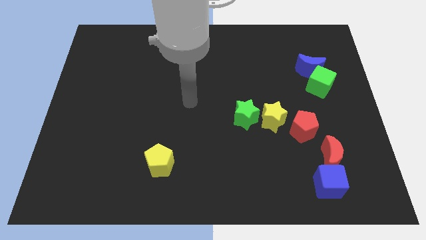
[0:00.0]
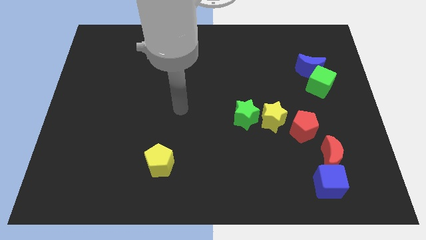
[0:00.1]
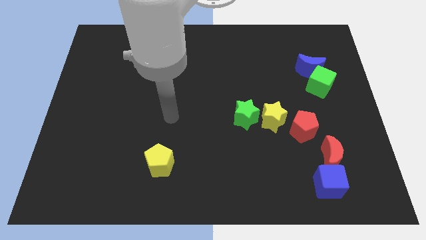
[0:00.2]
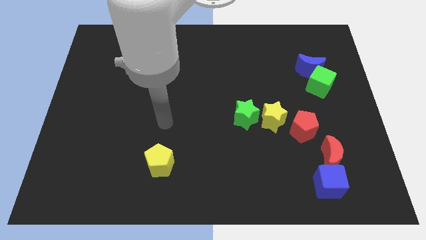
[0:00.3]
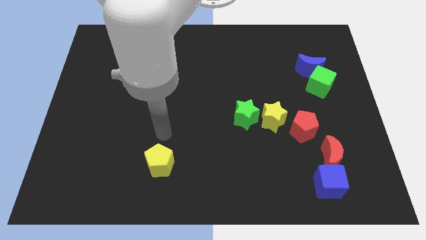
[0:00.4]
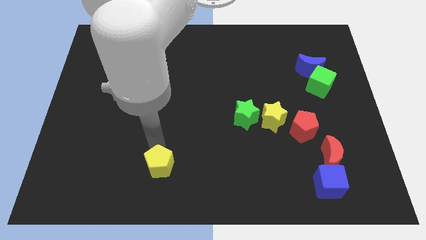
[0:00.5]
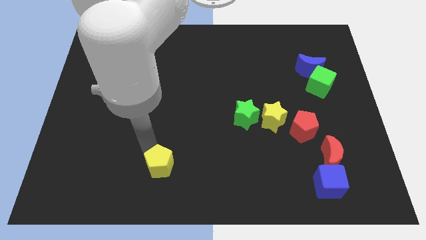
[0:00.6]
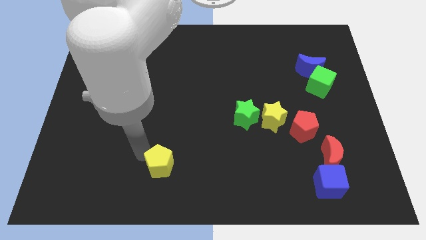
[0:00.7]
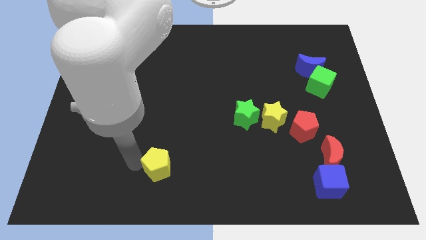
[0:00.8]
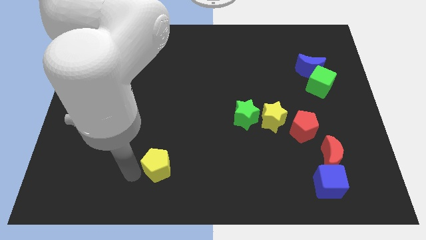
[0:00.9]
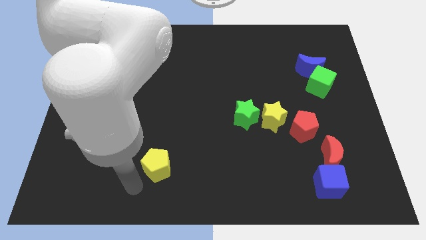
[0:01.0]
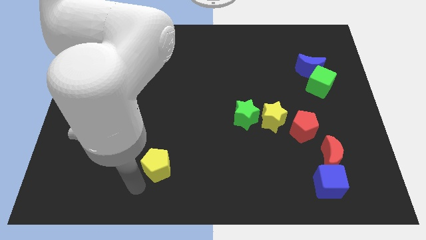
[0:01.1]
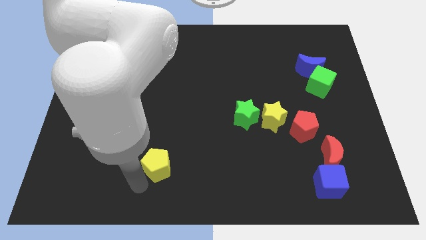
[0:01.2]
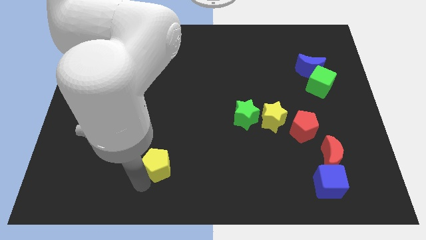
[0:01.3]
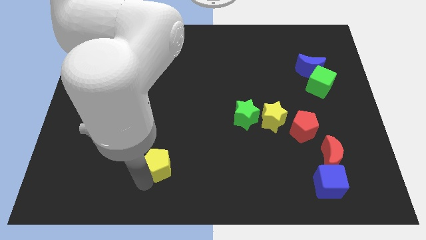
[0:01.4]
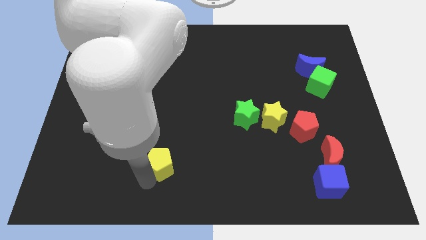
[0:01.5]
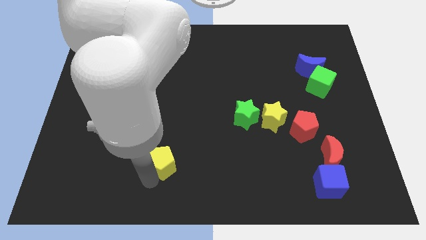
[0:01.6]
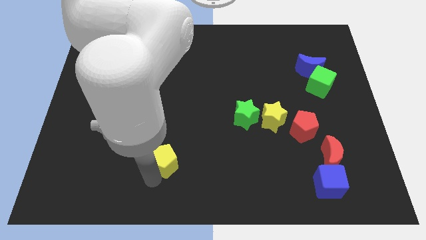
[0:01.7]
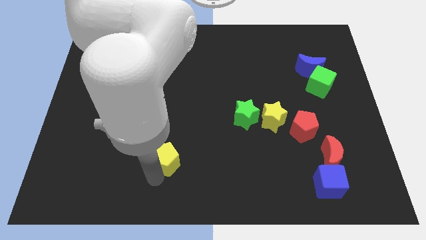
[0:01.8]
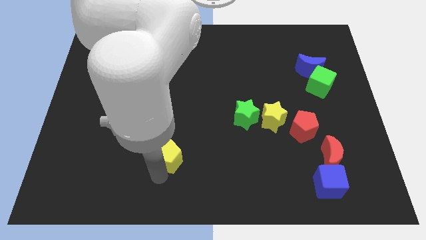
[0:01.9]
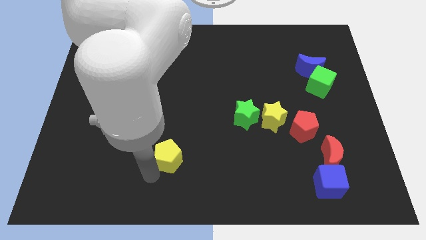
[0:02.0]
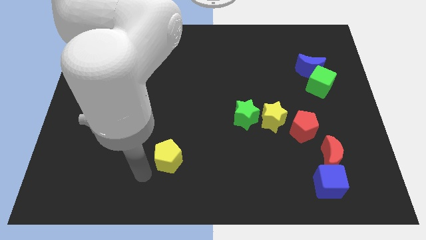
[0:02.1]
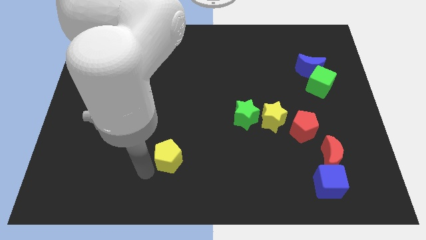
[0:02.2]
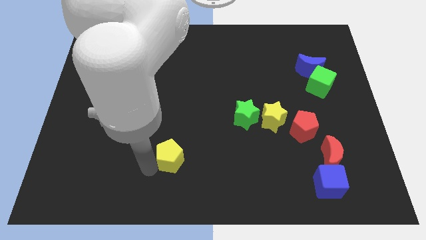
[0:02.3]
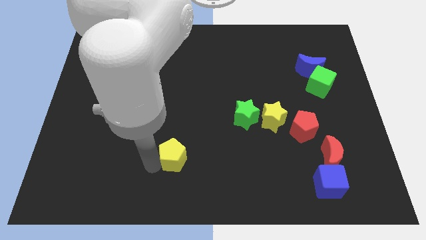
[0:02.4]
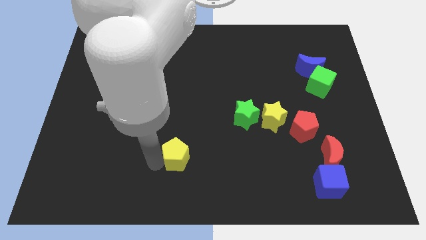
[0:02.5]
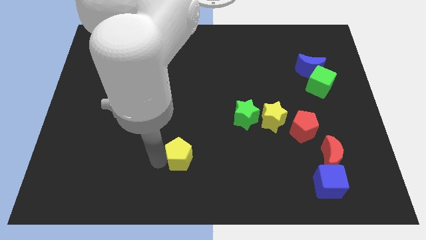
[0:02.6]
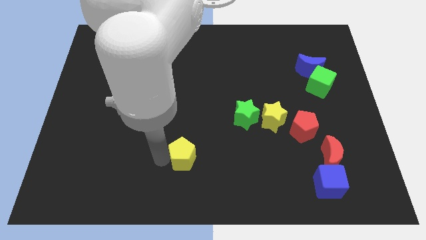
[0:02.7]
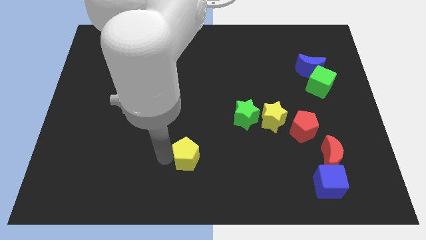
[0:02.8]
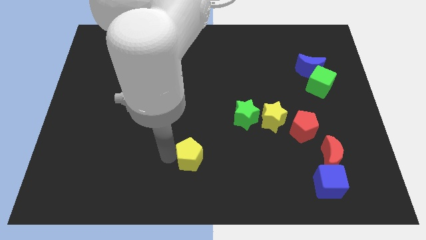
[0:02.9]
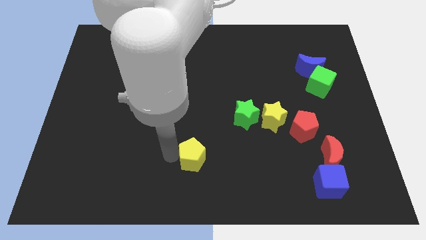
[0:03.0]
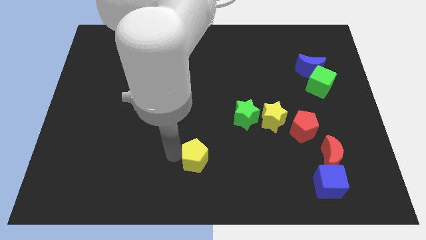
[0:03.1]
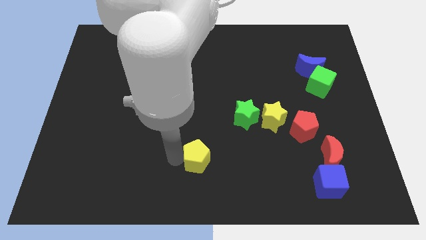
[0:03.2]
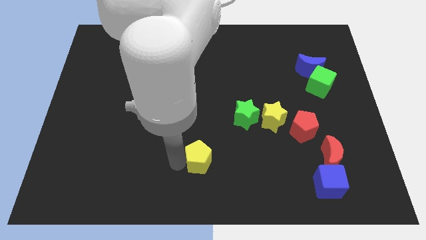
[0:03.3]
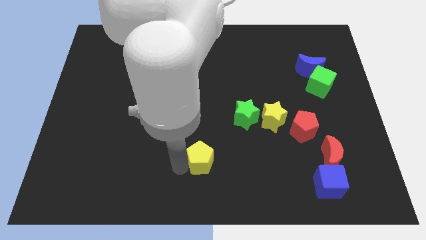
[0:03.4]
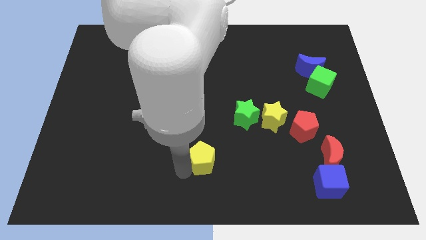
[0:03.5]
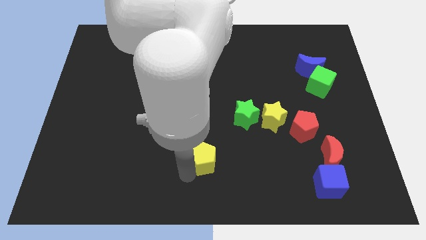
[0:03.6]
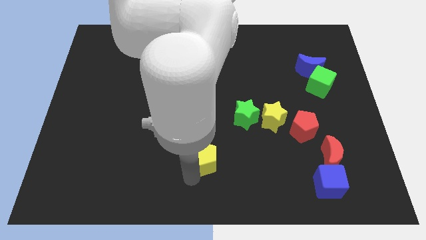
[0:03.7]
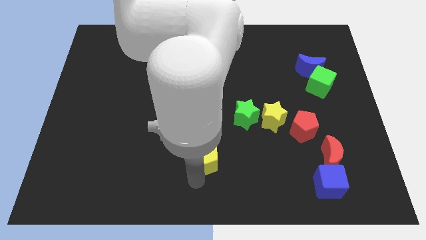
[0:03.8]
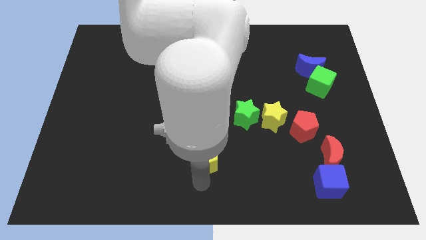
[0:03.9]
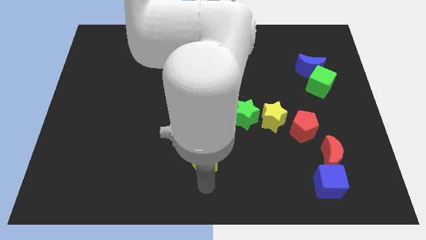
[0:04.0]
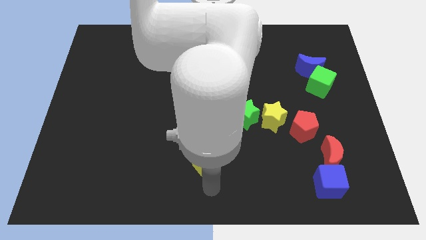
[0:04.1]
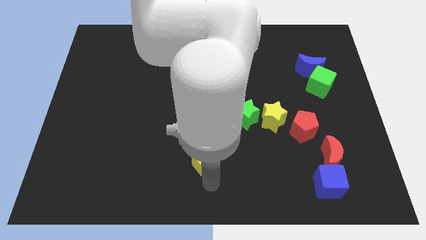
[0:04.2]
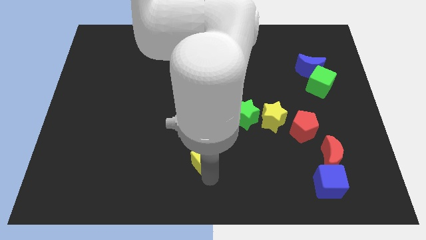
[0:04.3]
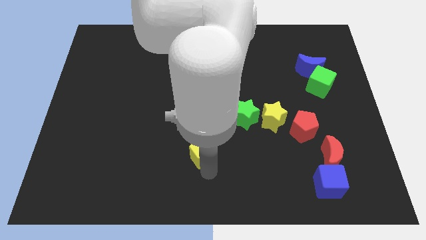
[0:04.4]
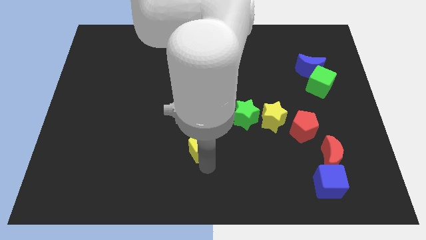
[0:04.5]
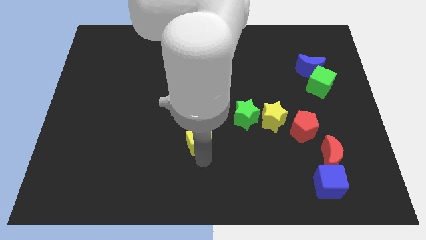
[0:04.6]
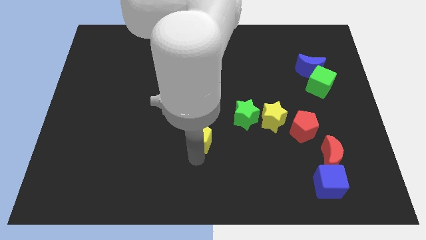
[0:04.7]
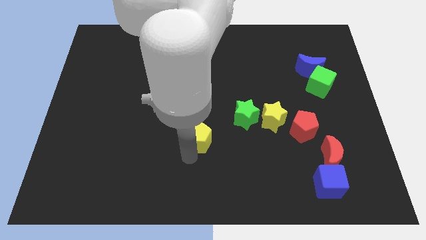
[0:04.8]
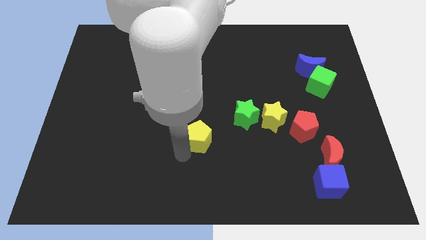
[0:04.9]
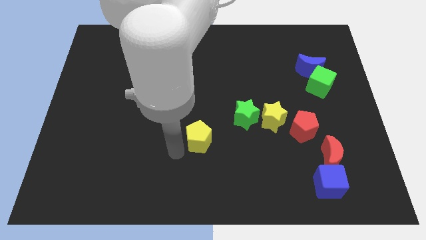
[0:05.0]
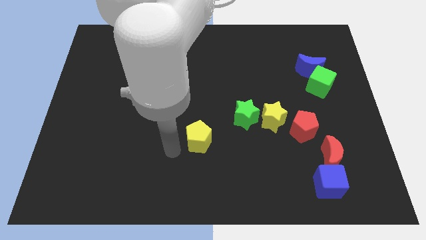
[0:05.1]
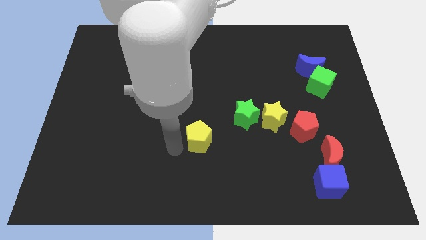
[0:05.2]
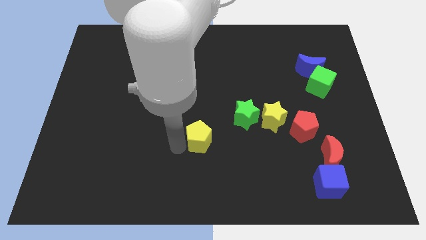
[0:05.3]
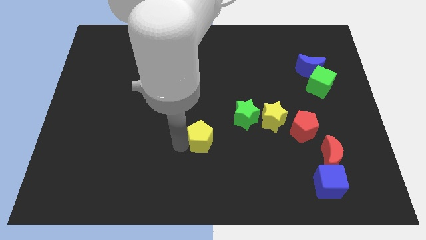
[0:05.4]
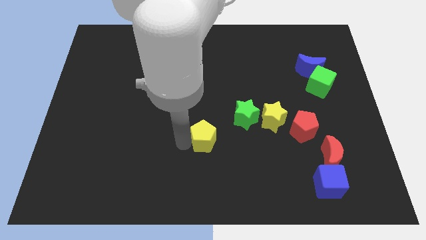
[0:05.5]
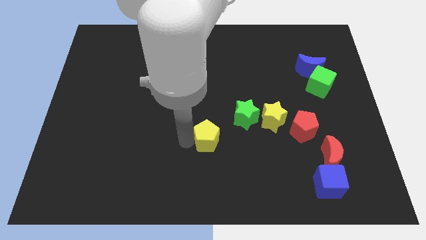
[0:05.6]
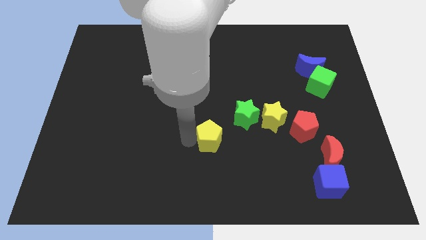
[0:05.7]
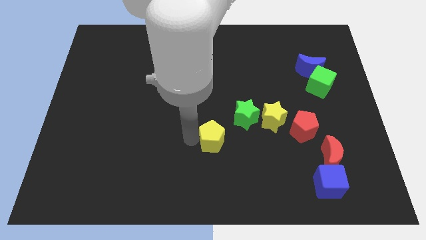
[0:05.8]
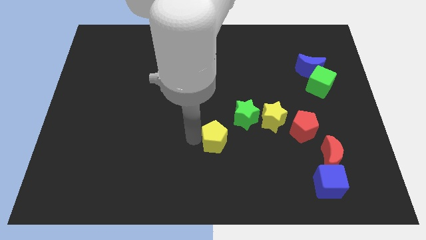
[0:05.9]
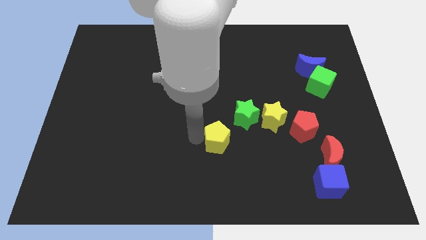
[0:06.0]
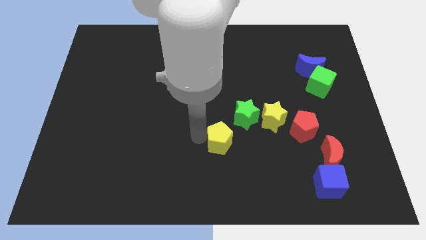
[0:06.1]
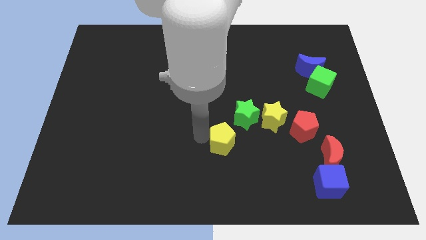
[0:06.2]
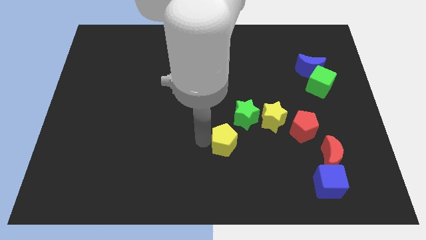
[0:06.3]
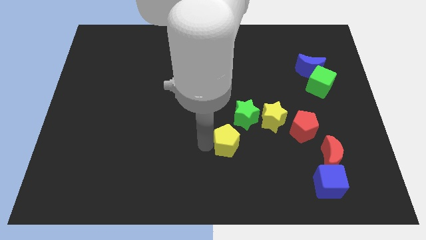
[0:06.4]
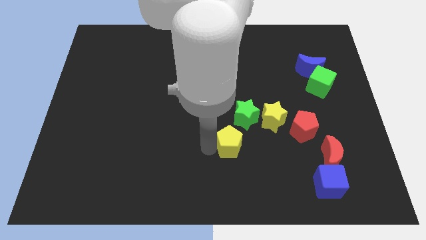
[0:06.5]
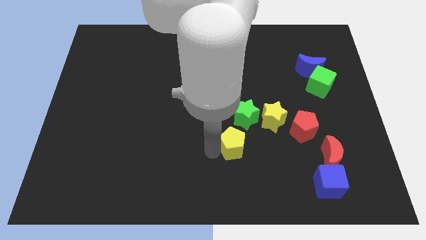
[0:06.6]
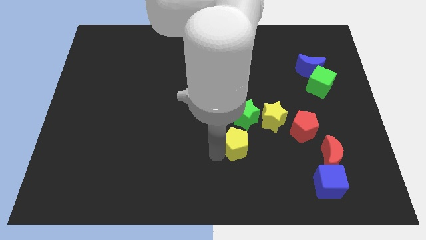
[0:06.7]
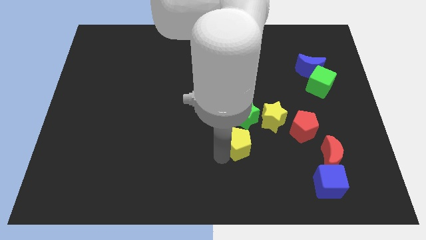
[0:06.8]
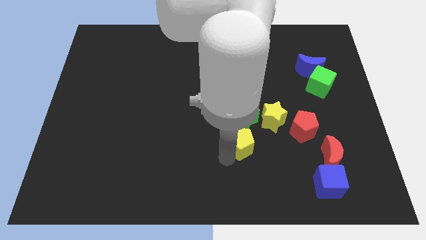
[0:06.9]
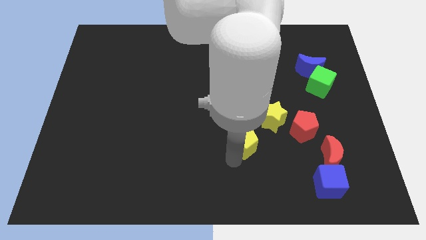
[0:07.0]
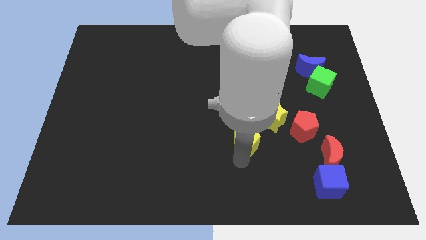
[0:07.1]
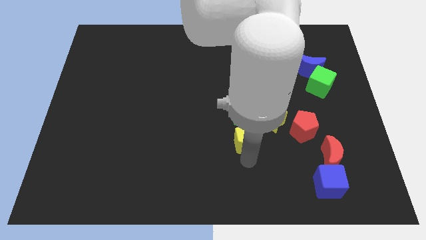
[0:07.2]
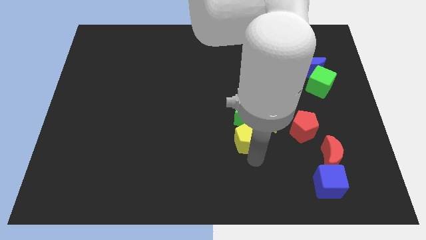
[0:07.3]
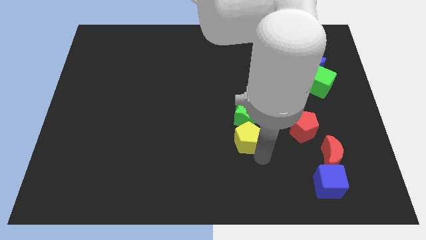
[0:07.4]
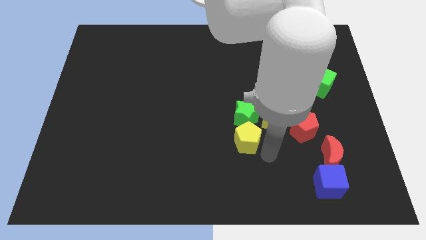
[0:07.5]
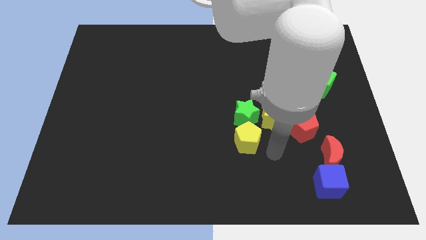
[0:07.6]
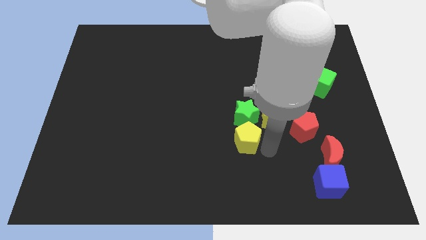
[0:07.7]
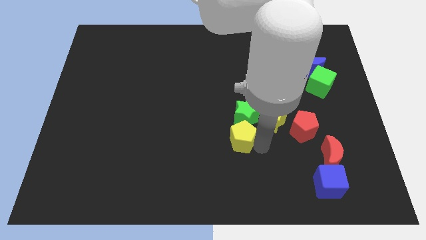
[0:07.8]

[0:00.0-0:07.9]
put the yellow pentagon towards the green star
